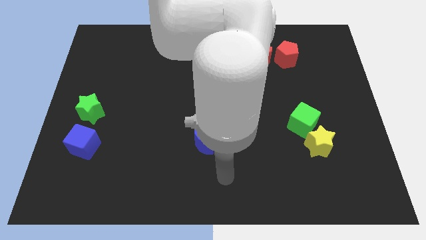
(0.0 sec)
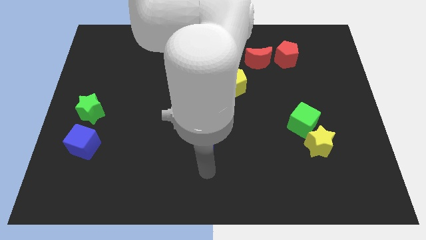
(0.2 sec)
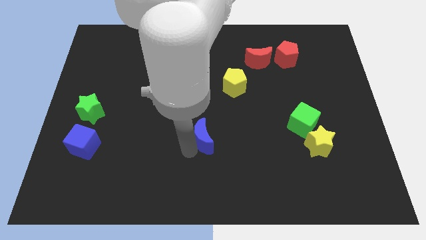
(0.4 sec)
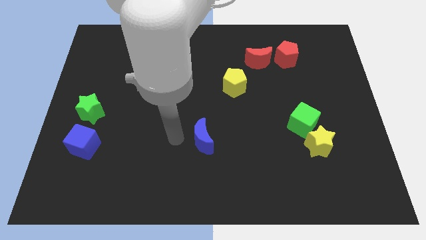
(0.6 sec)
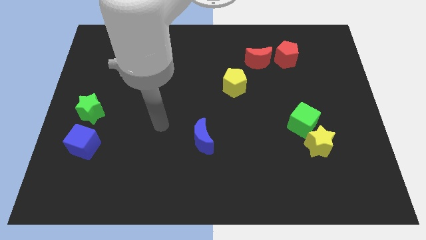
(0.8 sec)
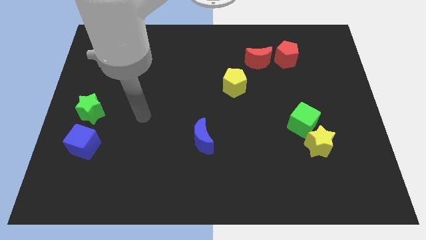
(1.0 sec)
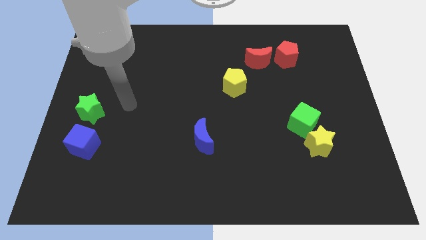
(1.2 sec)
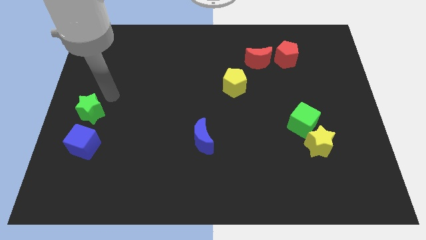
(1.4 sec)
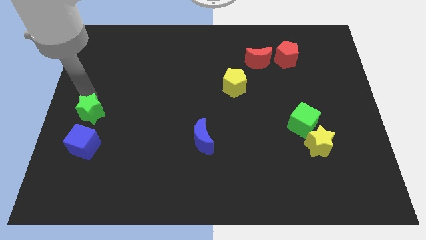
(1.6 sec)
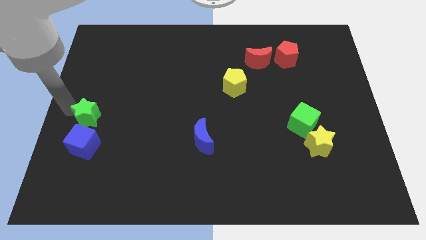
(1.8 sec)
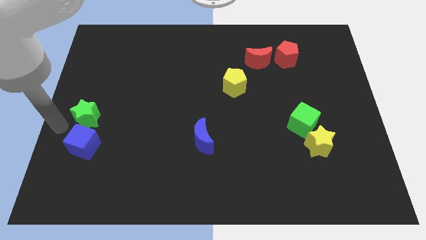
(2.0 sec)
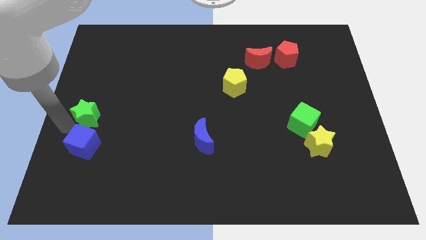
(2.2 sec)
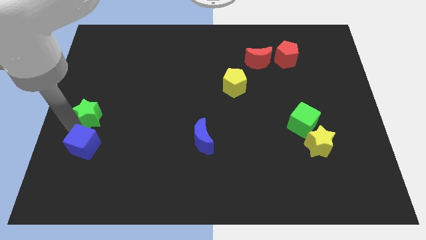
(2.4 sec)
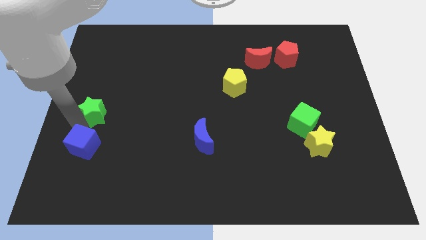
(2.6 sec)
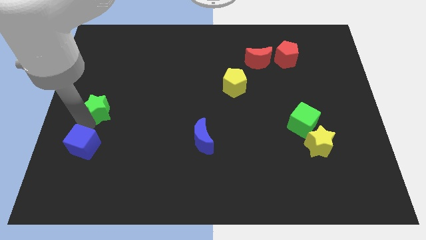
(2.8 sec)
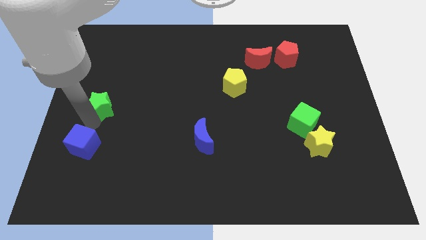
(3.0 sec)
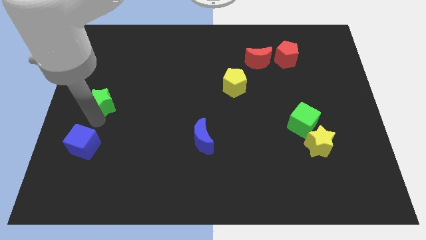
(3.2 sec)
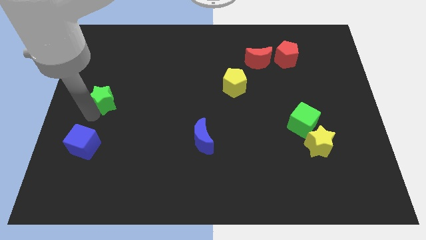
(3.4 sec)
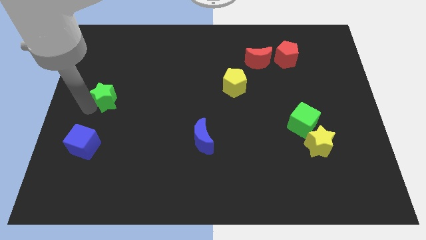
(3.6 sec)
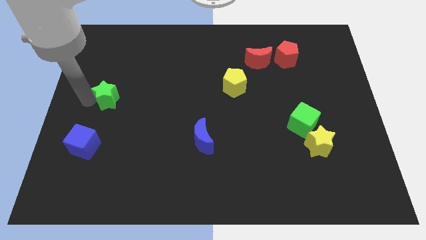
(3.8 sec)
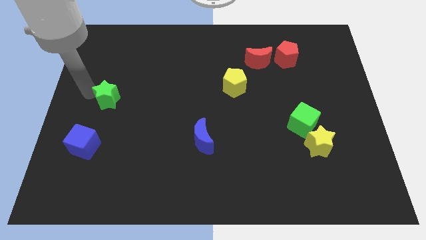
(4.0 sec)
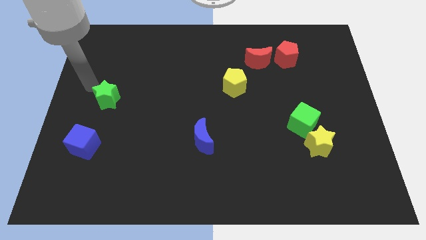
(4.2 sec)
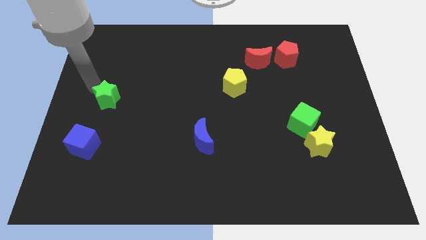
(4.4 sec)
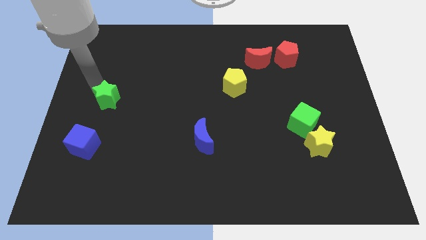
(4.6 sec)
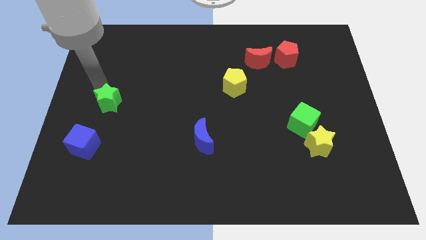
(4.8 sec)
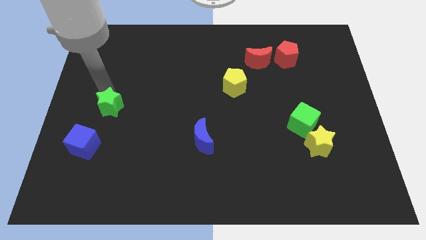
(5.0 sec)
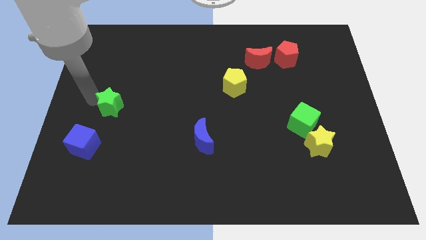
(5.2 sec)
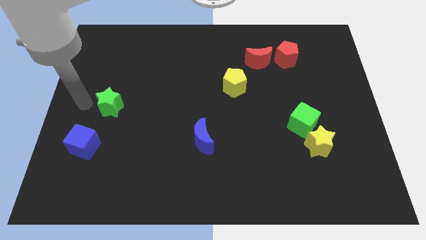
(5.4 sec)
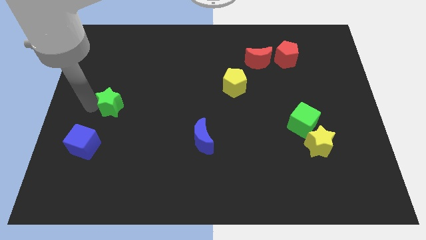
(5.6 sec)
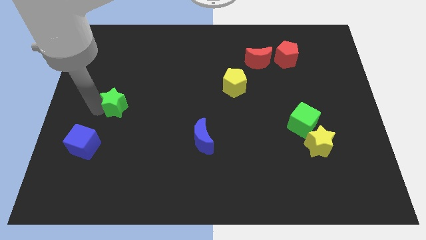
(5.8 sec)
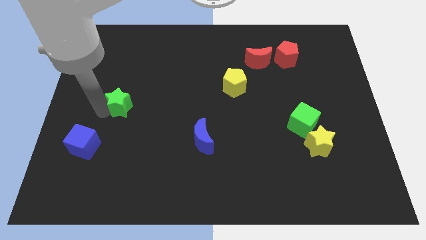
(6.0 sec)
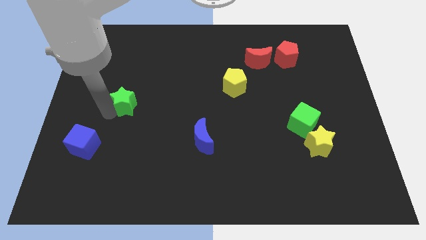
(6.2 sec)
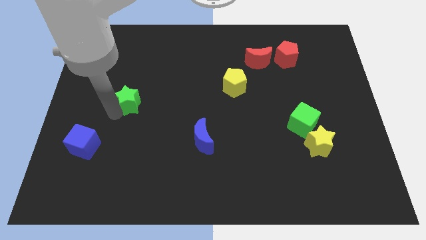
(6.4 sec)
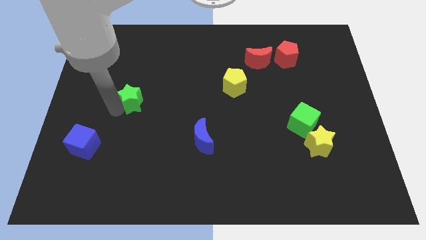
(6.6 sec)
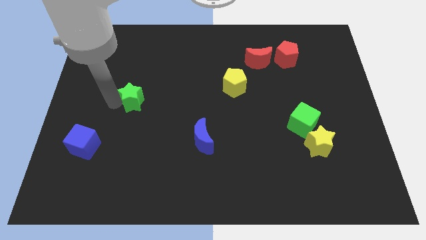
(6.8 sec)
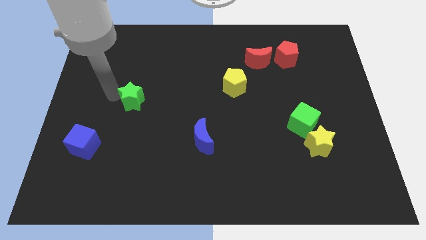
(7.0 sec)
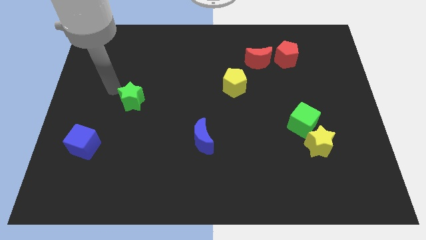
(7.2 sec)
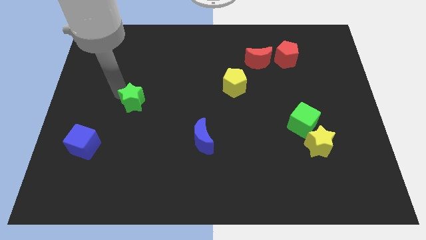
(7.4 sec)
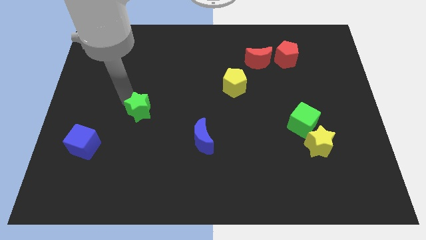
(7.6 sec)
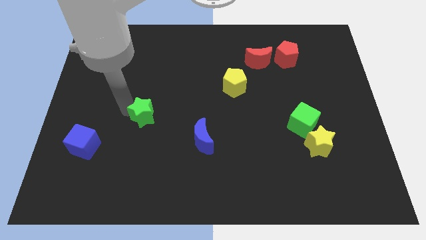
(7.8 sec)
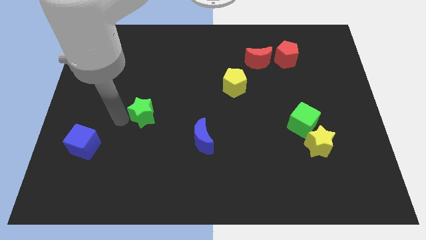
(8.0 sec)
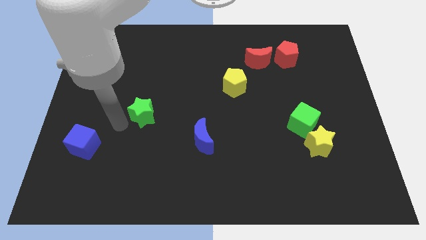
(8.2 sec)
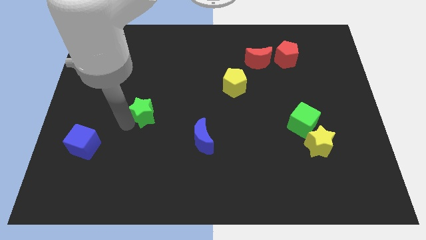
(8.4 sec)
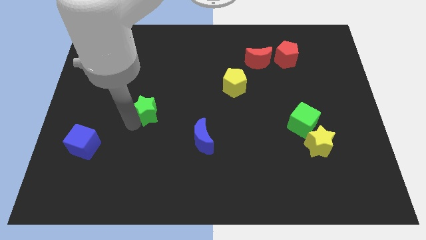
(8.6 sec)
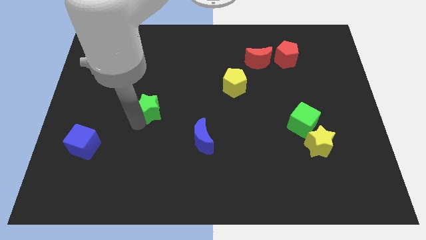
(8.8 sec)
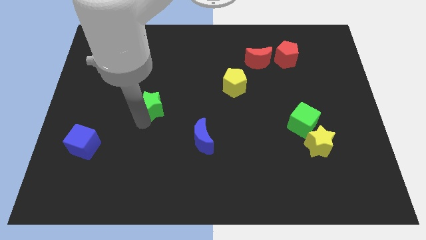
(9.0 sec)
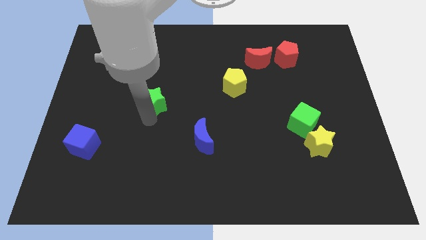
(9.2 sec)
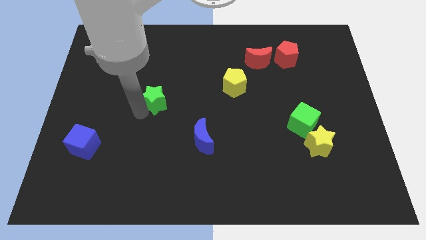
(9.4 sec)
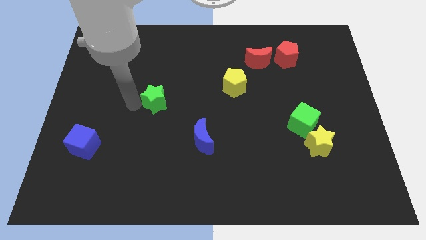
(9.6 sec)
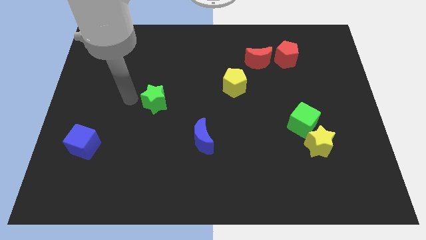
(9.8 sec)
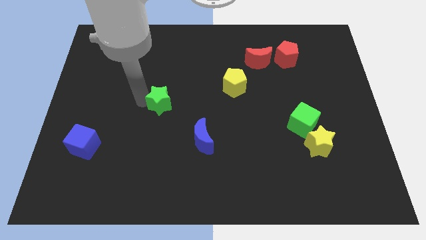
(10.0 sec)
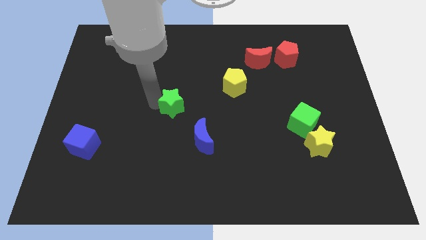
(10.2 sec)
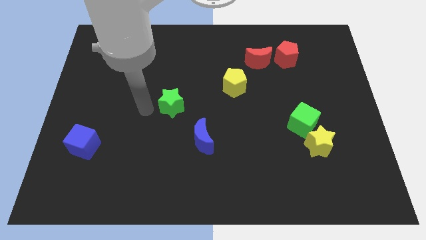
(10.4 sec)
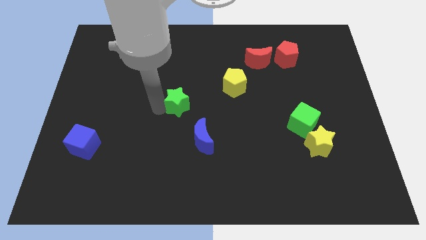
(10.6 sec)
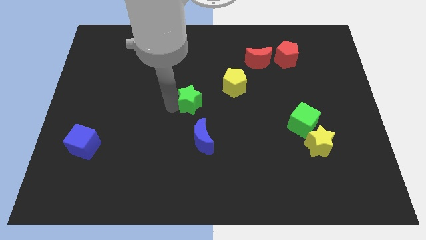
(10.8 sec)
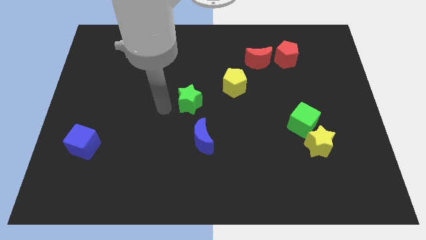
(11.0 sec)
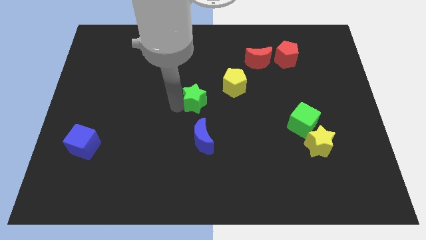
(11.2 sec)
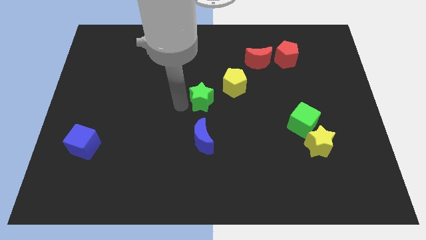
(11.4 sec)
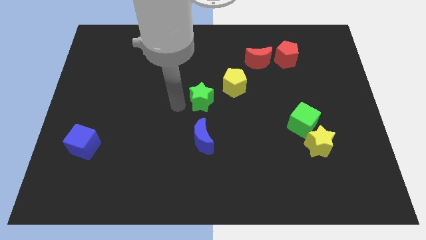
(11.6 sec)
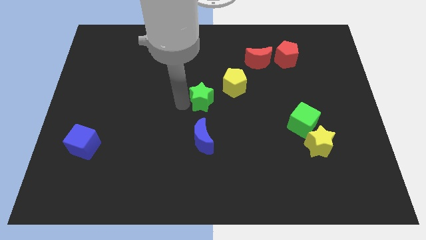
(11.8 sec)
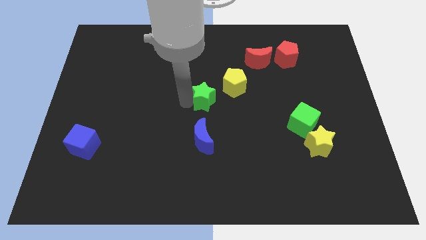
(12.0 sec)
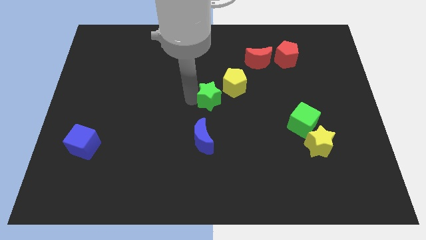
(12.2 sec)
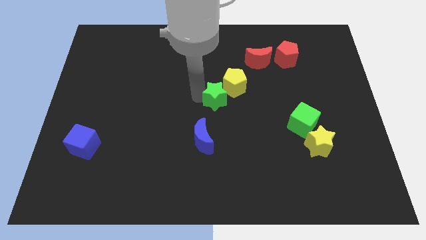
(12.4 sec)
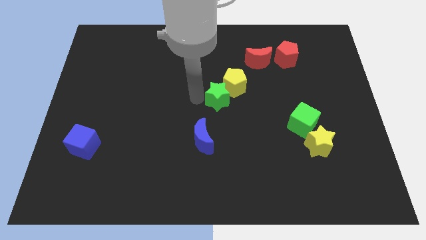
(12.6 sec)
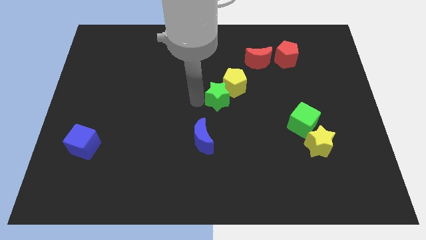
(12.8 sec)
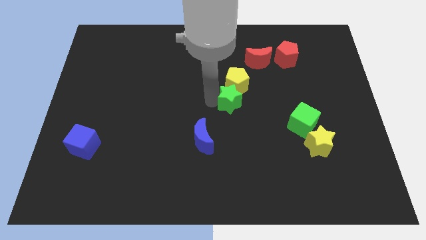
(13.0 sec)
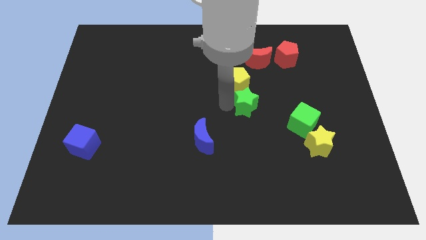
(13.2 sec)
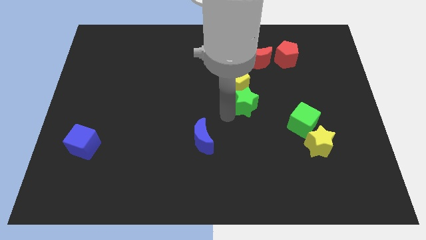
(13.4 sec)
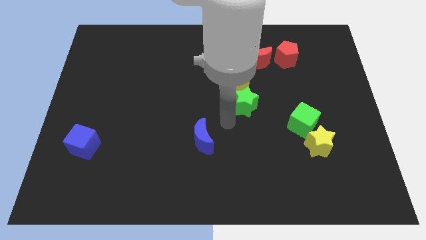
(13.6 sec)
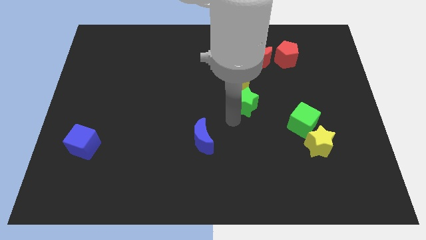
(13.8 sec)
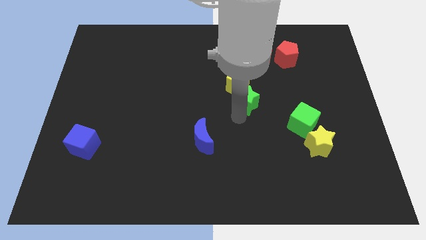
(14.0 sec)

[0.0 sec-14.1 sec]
move the green star to the bottom of the red moon

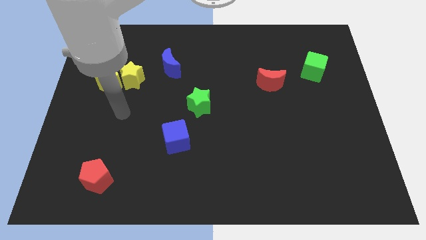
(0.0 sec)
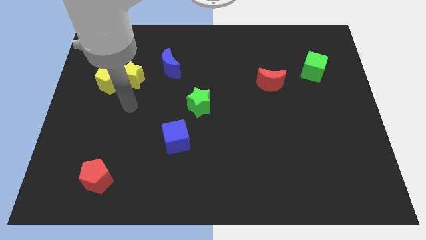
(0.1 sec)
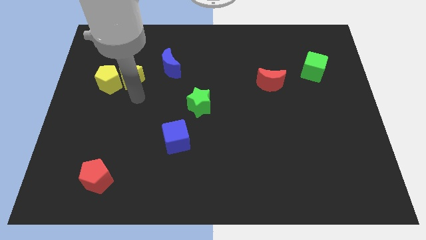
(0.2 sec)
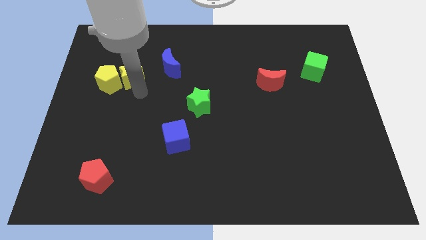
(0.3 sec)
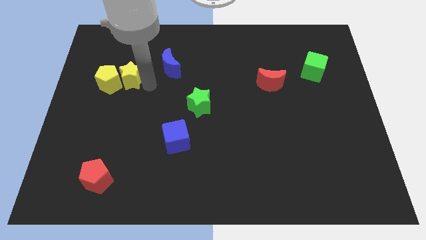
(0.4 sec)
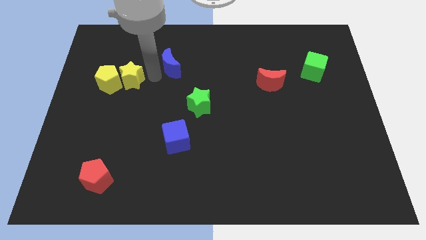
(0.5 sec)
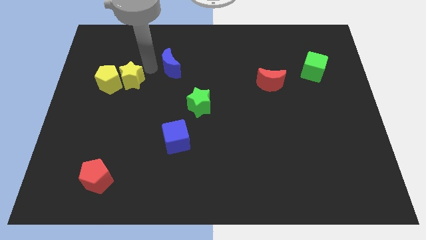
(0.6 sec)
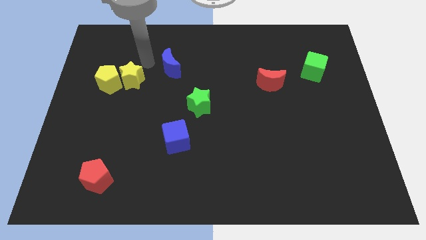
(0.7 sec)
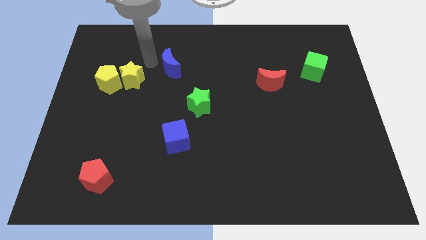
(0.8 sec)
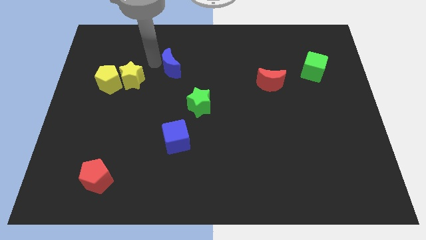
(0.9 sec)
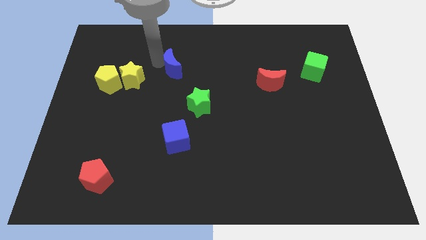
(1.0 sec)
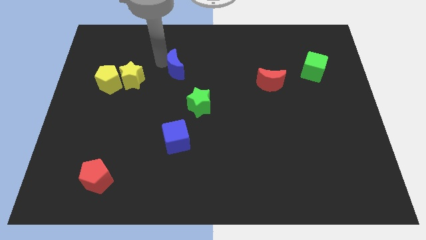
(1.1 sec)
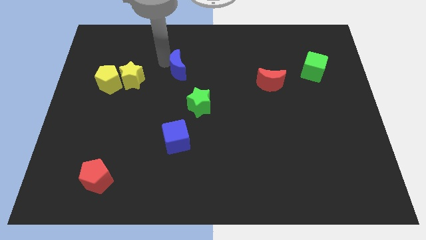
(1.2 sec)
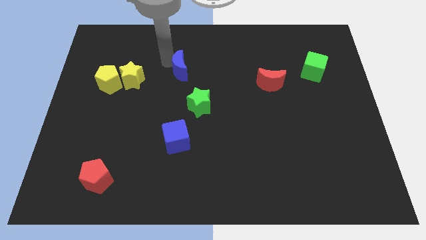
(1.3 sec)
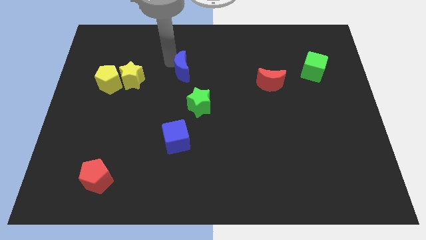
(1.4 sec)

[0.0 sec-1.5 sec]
move the blue moon to the top of the green star
